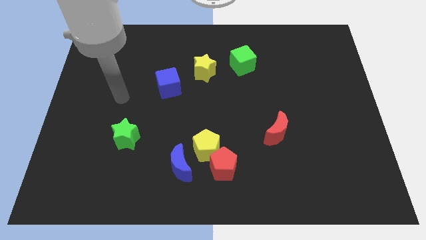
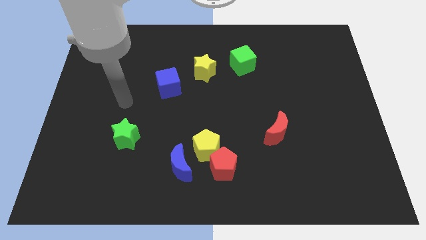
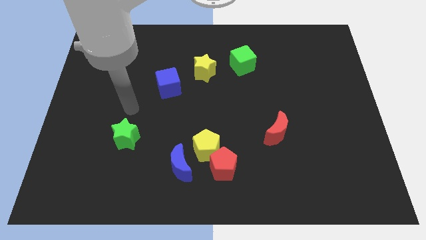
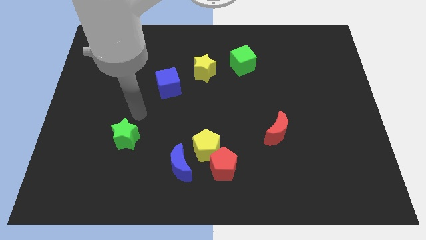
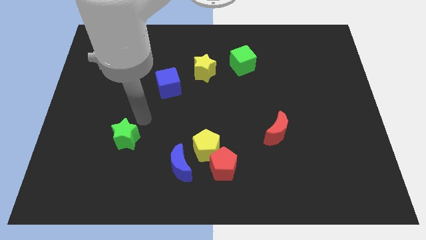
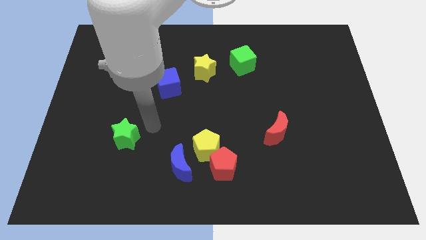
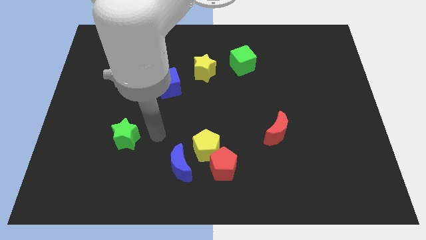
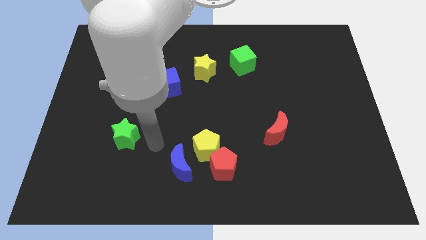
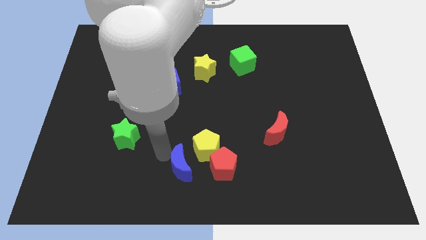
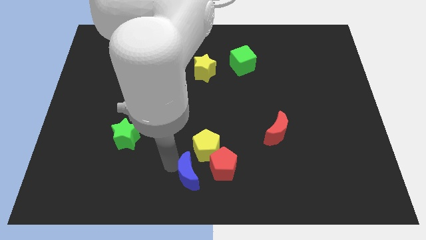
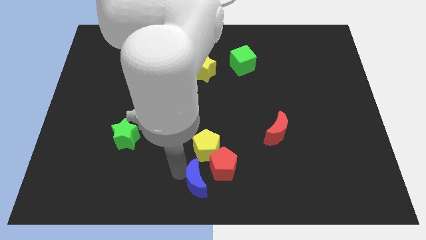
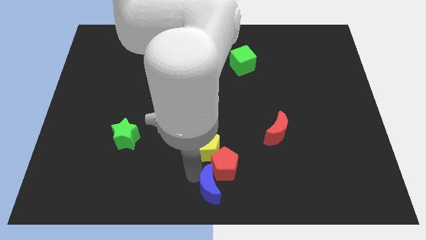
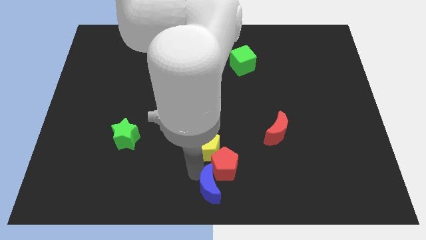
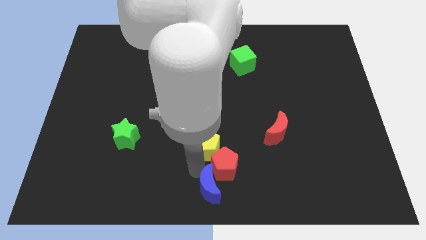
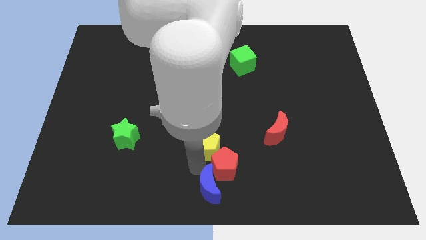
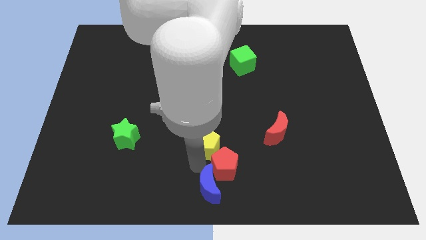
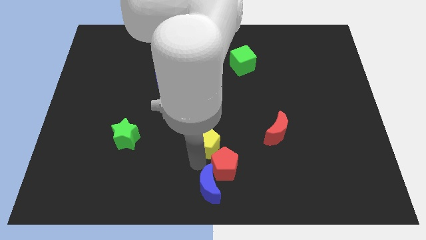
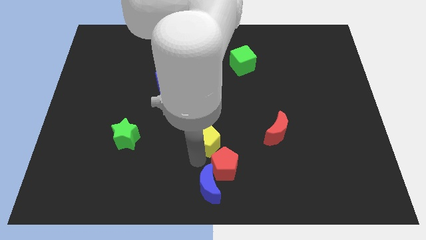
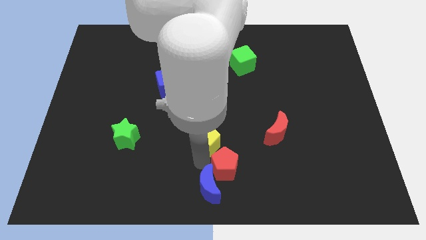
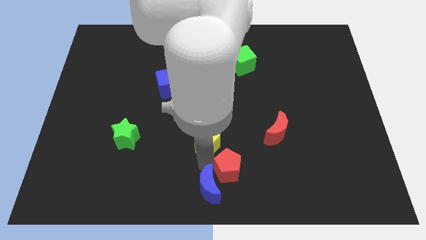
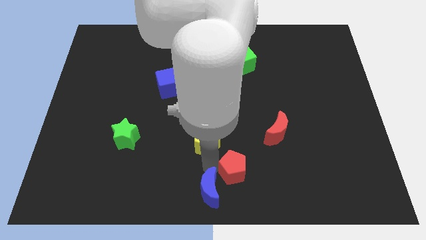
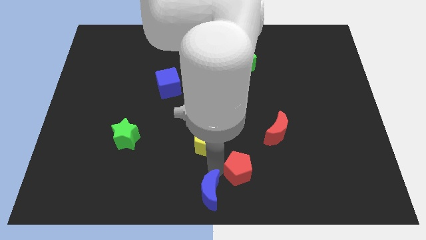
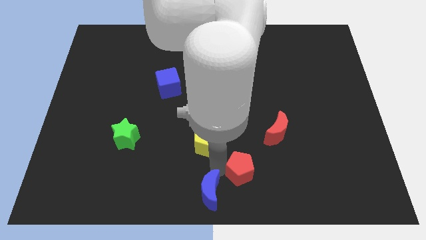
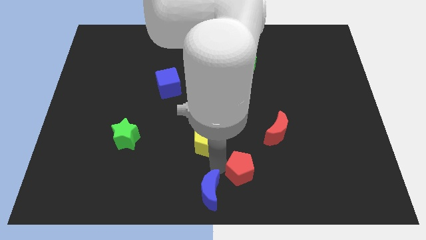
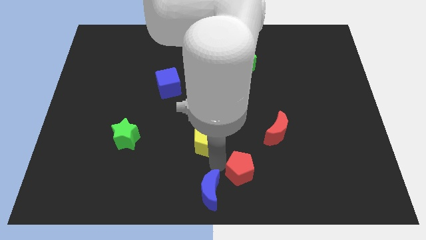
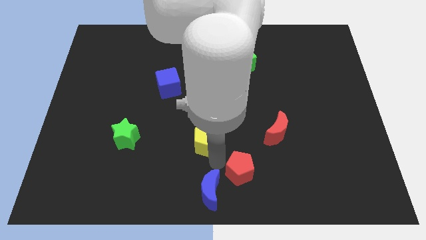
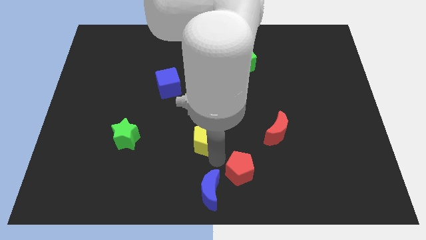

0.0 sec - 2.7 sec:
separate the yellow pentagon from the red pentagon and blue moon

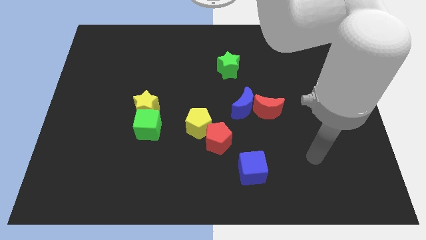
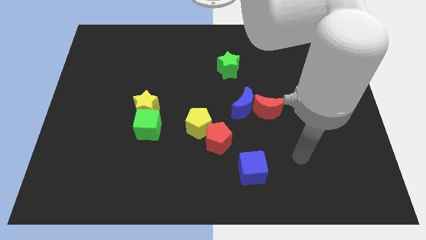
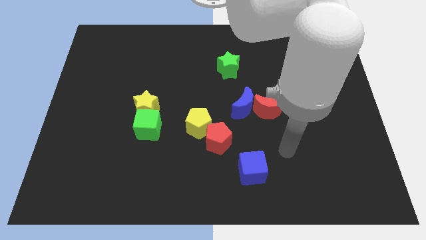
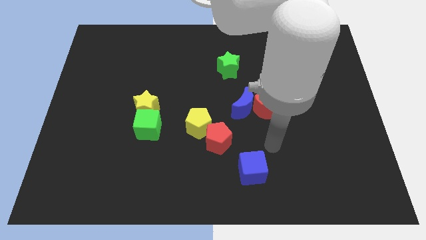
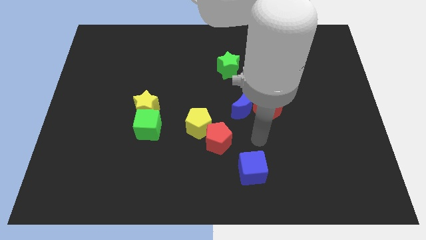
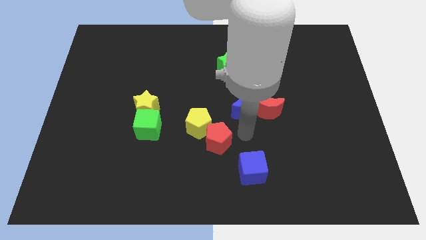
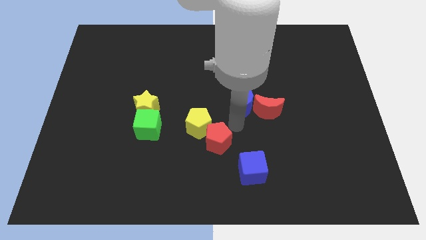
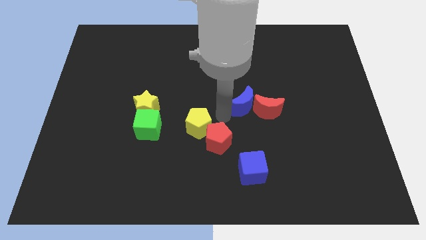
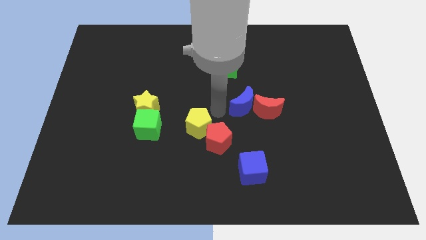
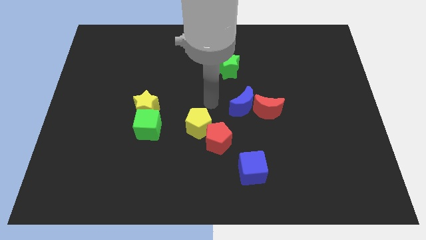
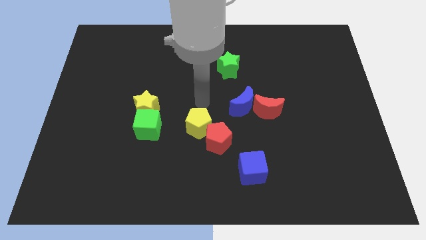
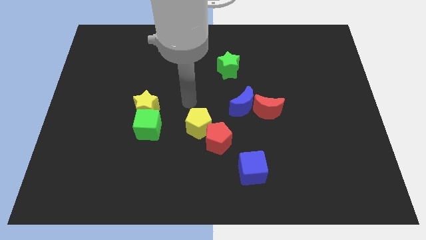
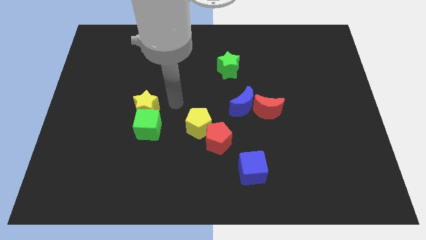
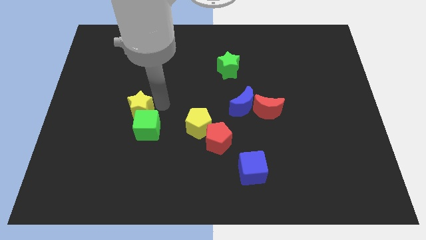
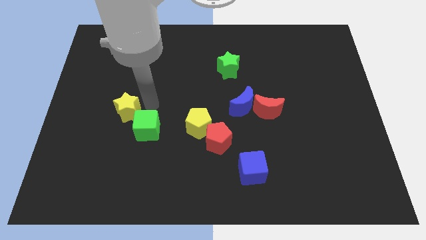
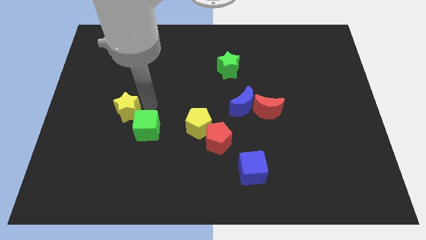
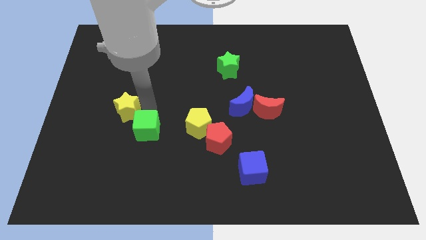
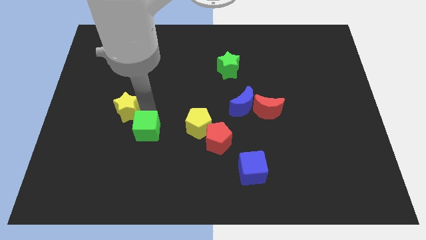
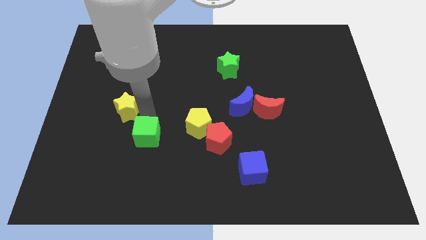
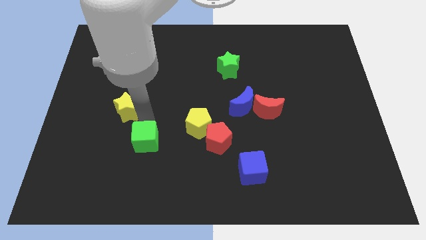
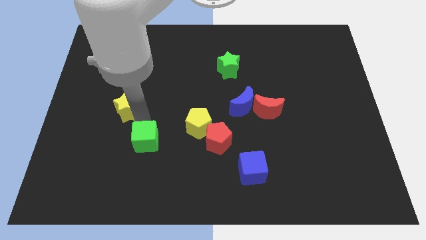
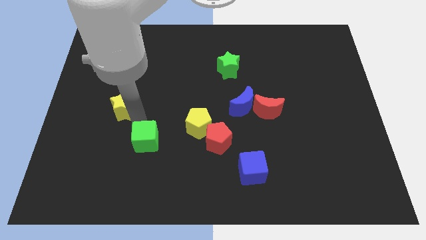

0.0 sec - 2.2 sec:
move the green cube away from the yellow star

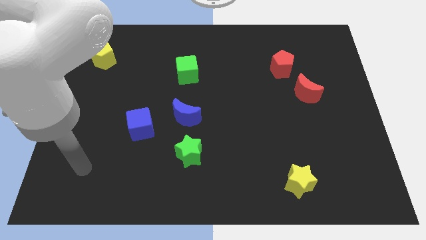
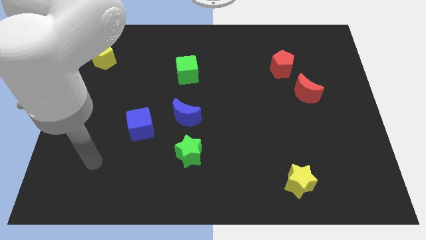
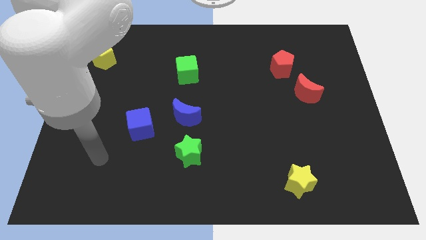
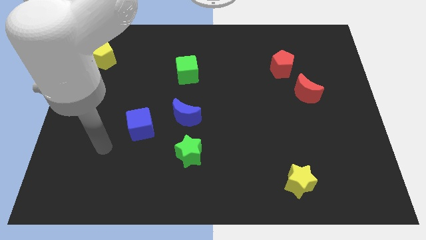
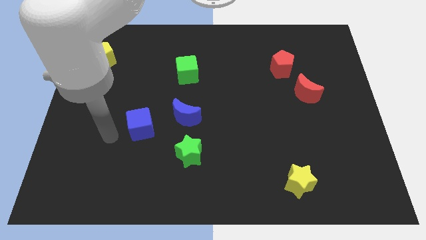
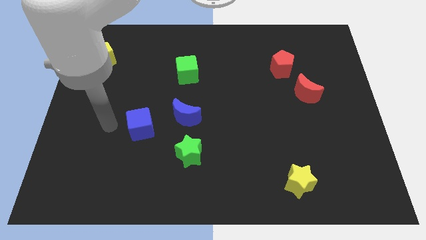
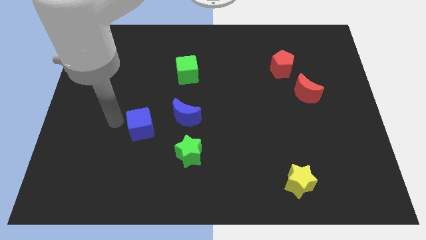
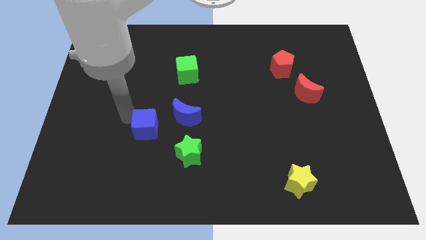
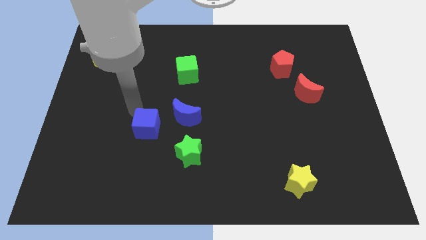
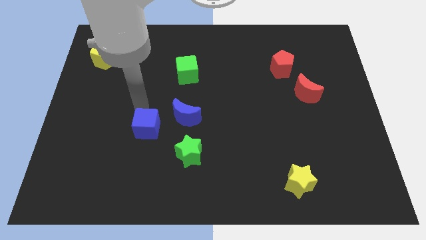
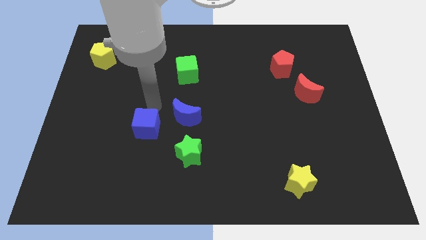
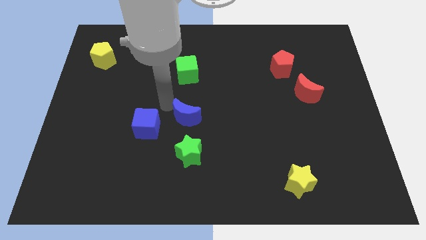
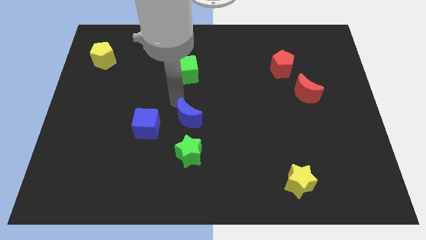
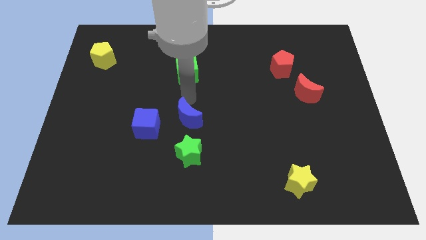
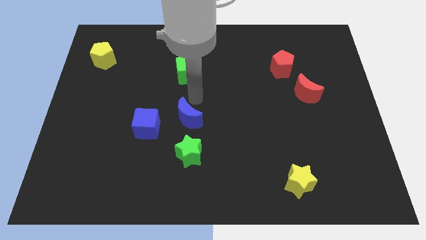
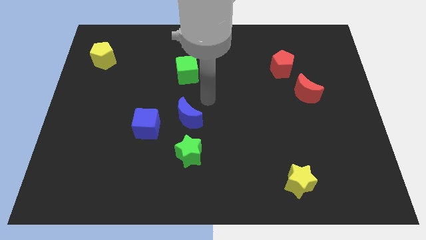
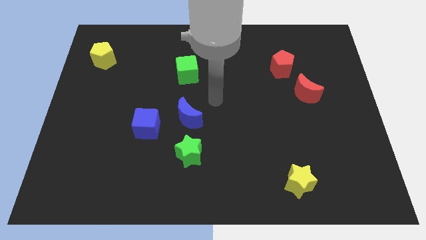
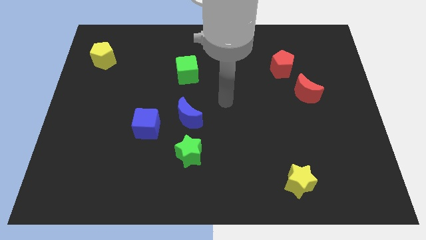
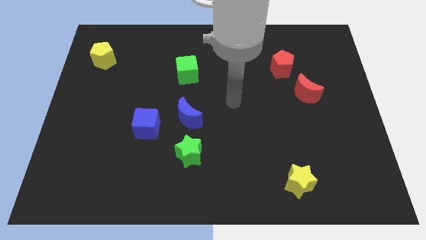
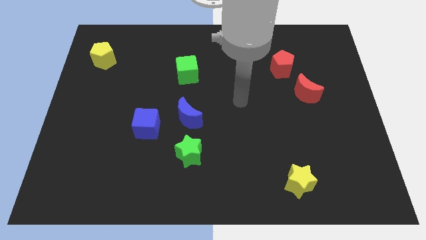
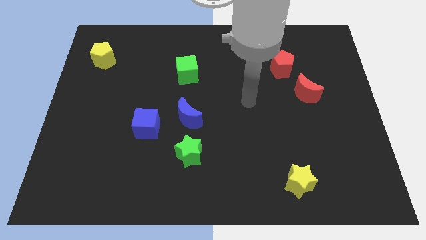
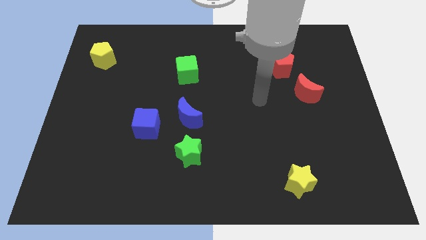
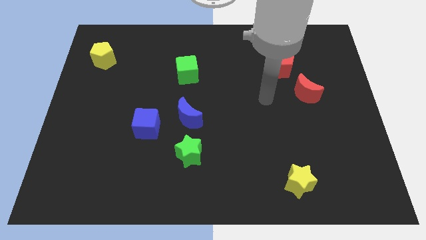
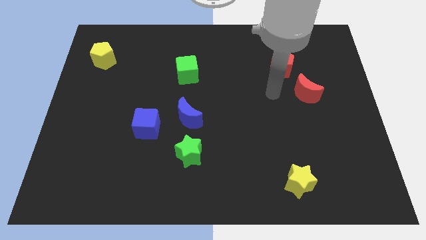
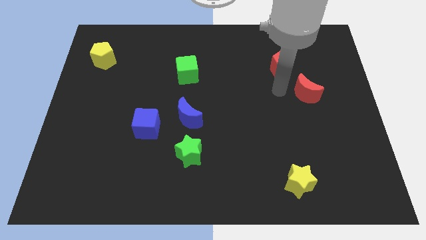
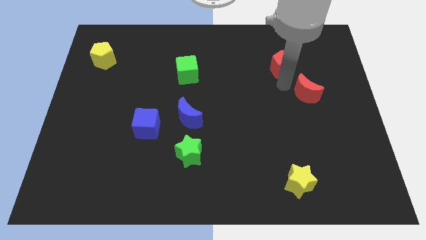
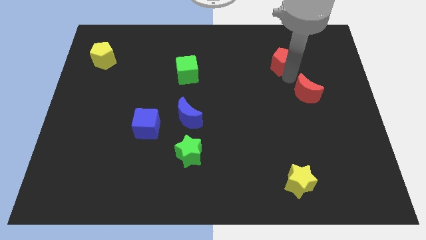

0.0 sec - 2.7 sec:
pull the red moon apart from the red pentagon

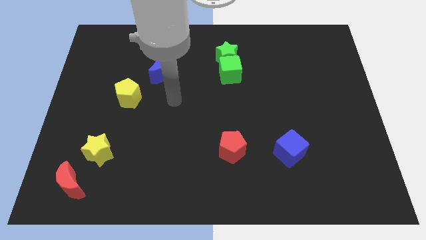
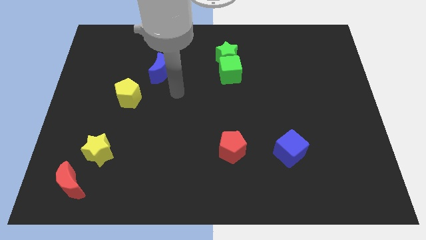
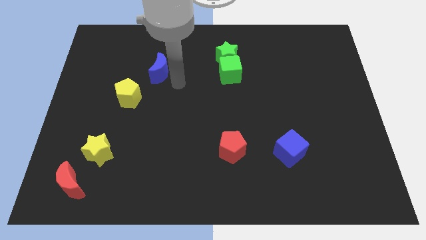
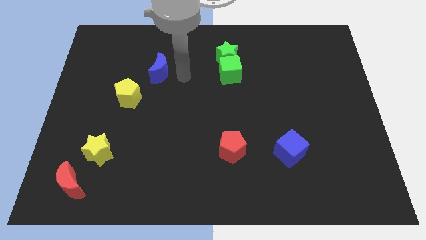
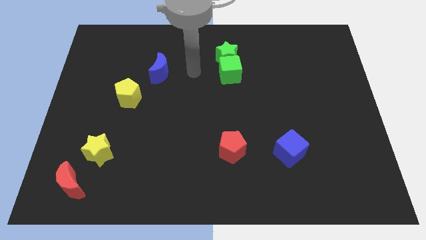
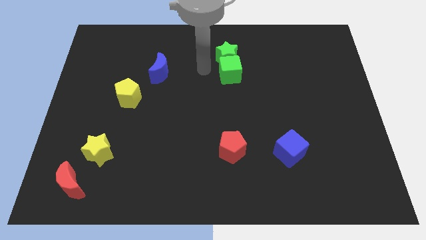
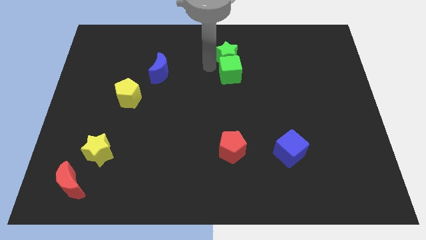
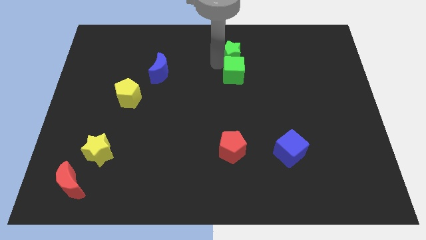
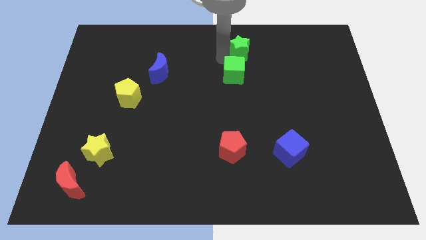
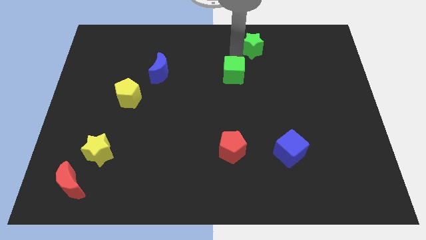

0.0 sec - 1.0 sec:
move the green cube away from the green star

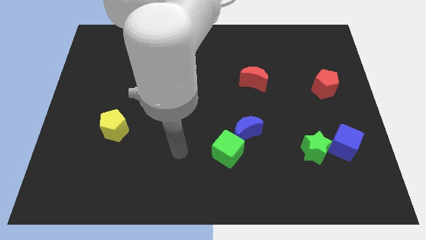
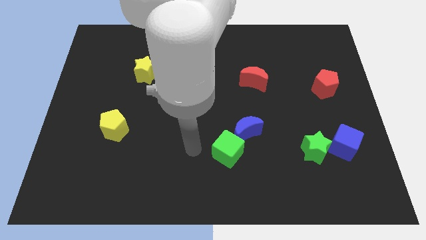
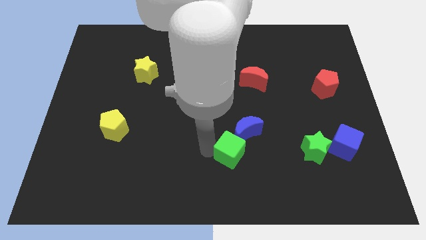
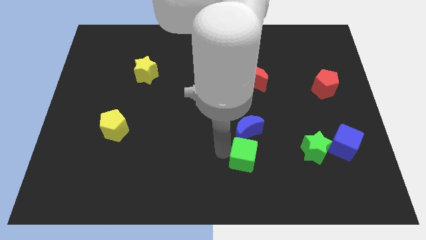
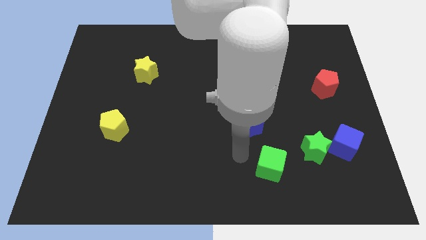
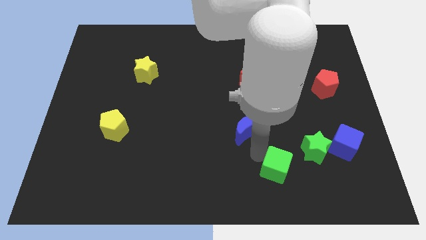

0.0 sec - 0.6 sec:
pull the blue moon apart from the green cube

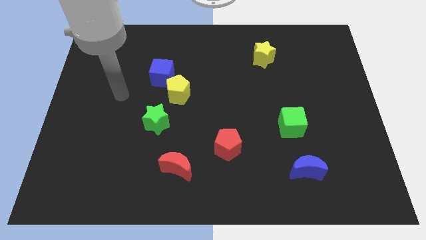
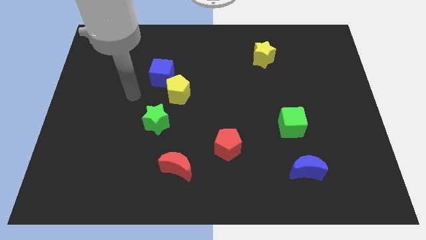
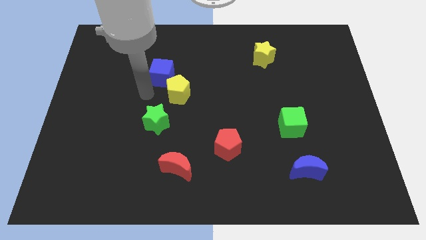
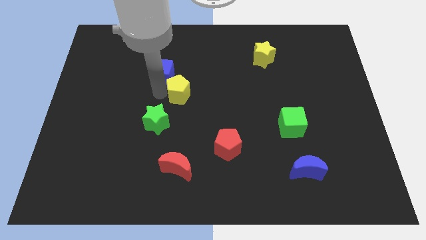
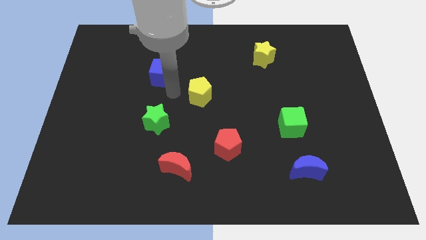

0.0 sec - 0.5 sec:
move the blue cube away from the yellow pentagon
